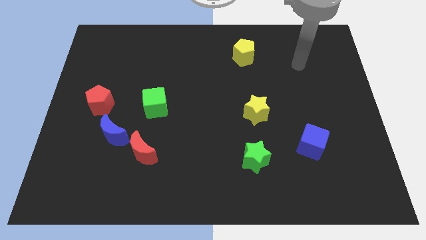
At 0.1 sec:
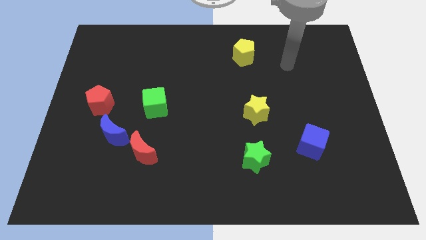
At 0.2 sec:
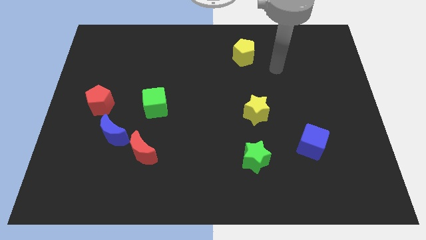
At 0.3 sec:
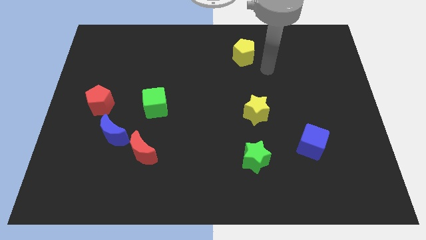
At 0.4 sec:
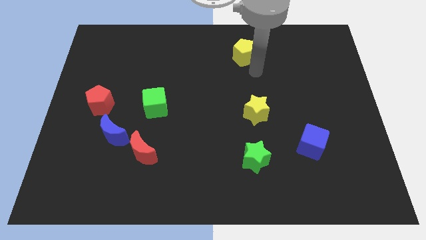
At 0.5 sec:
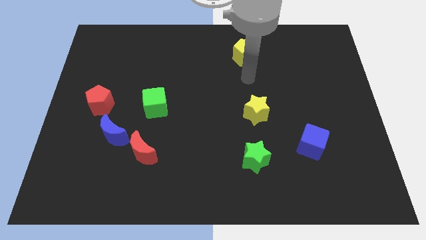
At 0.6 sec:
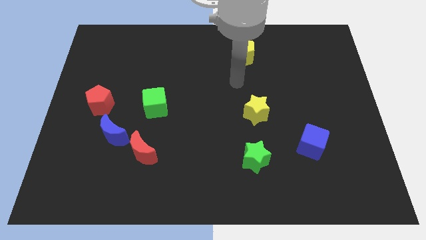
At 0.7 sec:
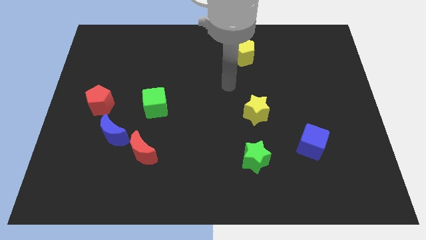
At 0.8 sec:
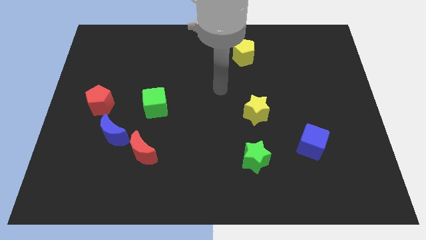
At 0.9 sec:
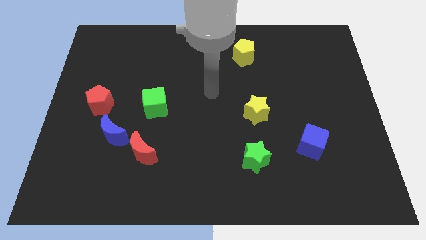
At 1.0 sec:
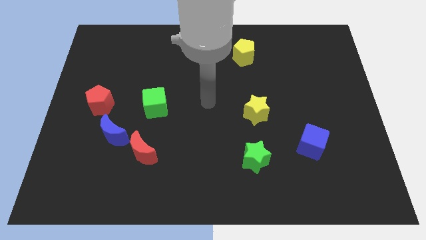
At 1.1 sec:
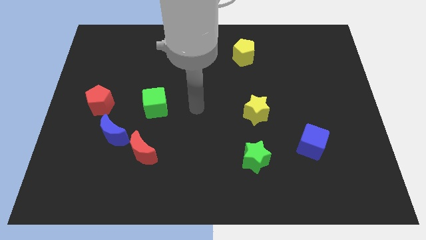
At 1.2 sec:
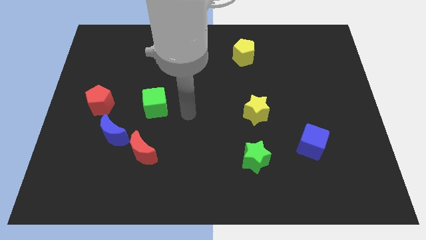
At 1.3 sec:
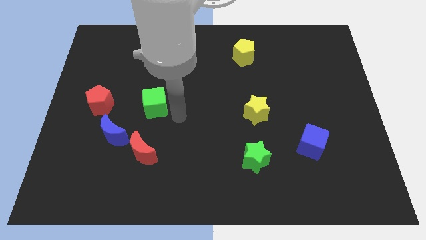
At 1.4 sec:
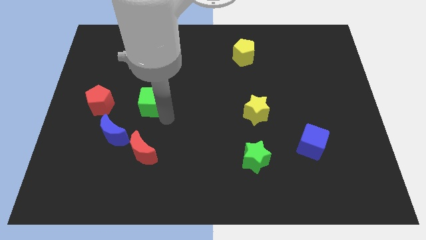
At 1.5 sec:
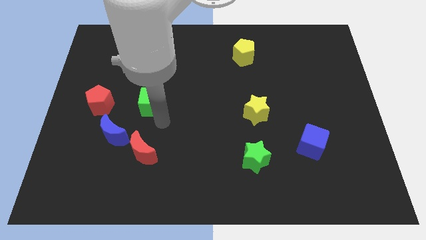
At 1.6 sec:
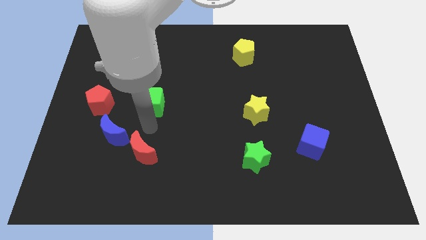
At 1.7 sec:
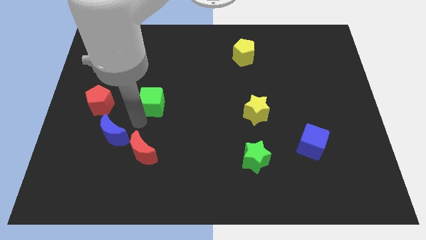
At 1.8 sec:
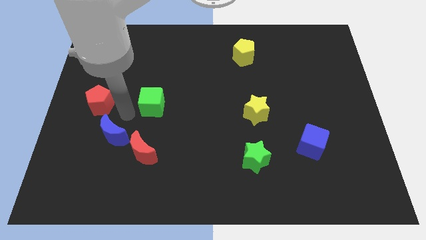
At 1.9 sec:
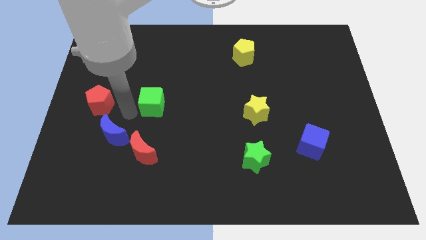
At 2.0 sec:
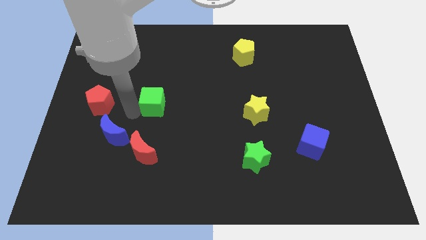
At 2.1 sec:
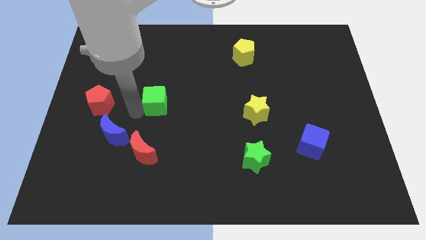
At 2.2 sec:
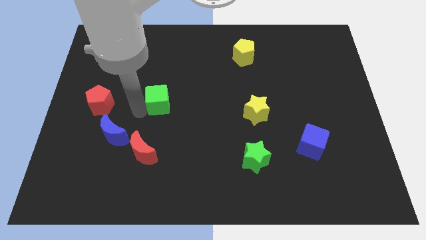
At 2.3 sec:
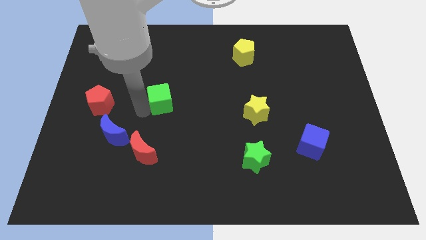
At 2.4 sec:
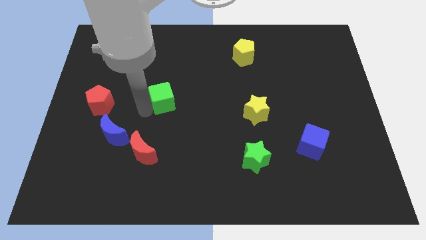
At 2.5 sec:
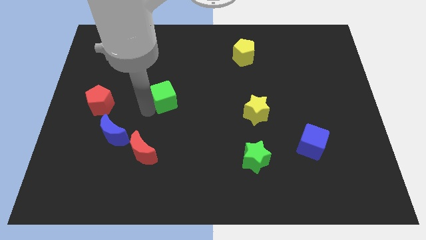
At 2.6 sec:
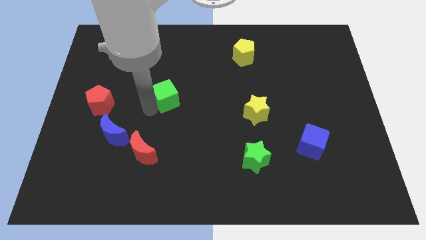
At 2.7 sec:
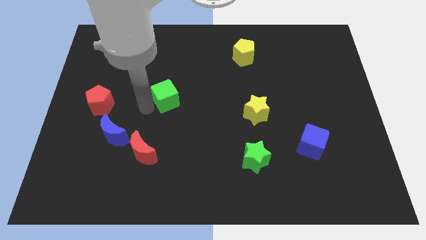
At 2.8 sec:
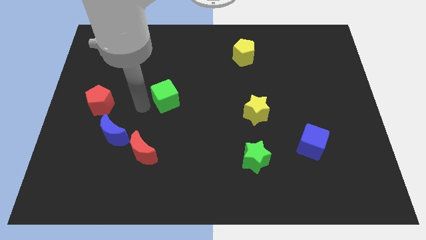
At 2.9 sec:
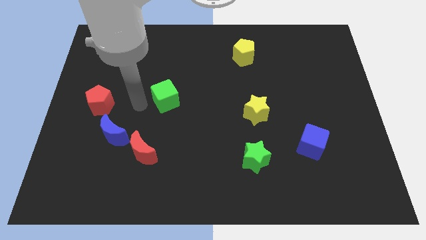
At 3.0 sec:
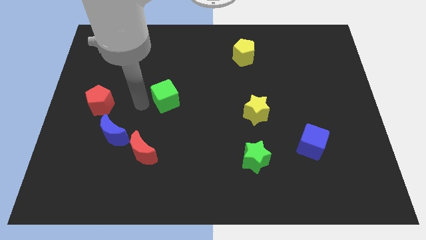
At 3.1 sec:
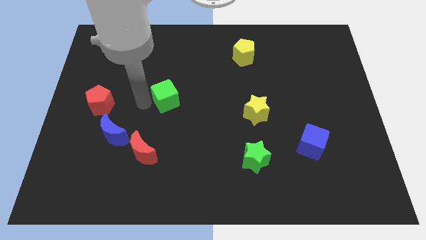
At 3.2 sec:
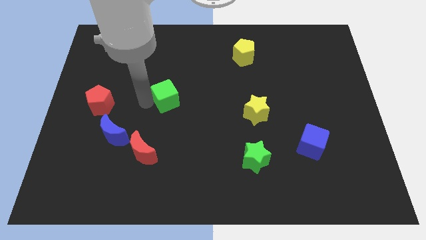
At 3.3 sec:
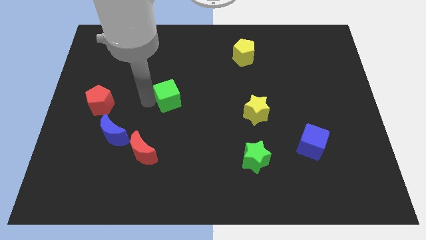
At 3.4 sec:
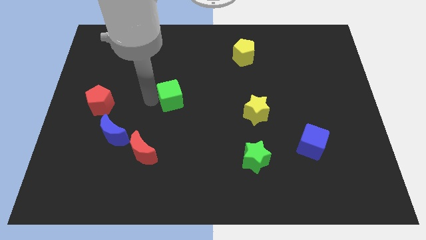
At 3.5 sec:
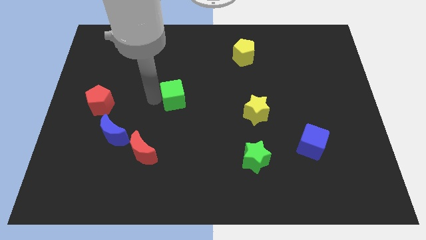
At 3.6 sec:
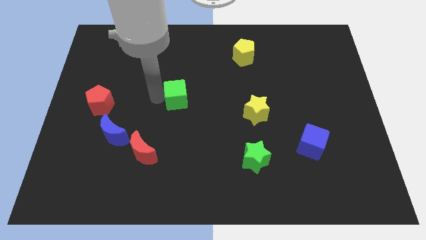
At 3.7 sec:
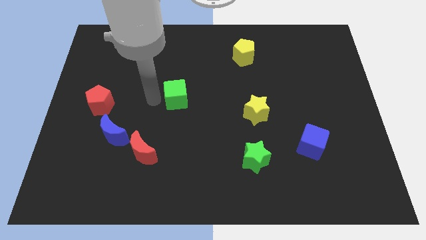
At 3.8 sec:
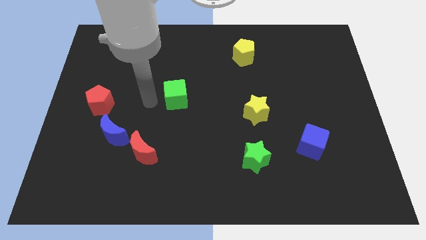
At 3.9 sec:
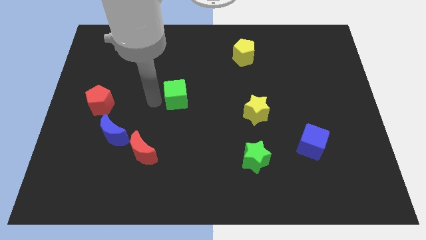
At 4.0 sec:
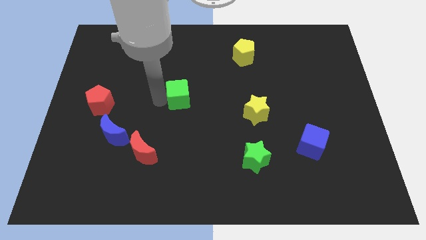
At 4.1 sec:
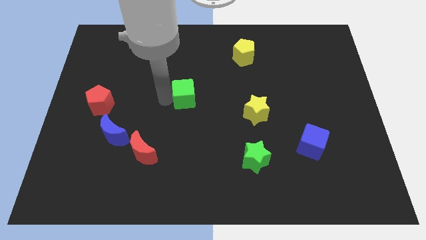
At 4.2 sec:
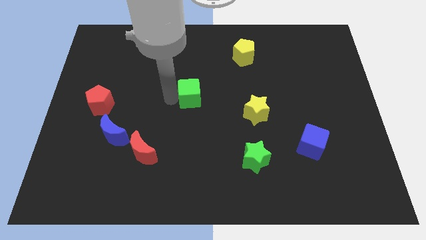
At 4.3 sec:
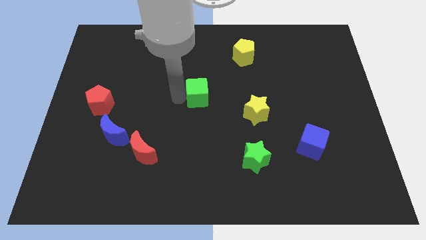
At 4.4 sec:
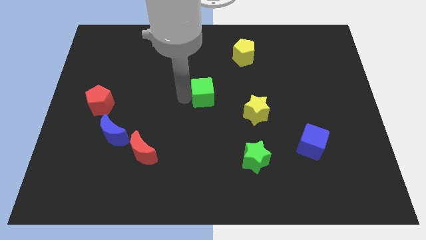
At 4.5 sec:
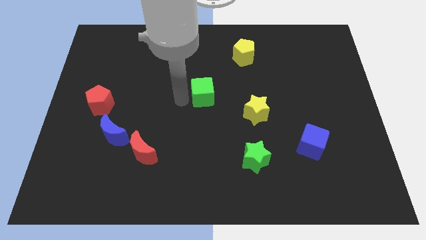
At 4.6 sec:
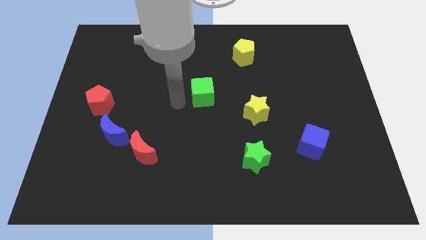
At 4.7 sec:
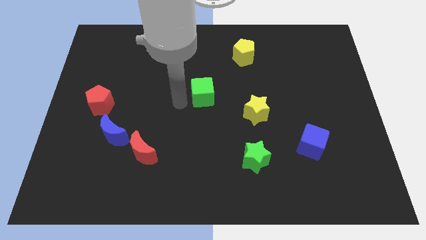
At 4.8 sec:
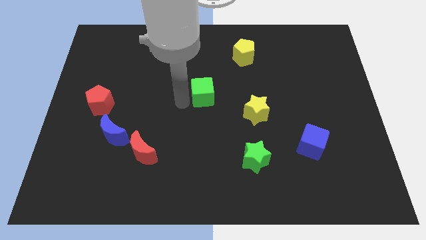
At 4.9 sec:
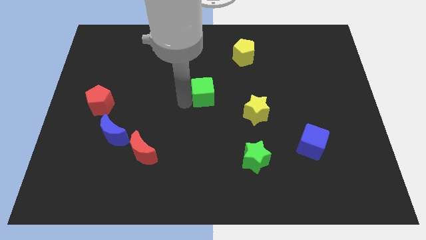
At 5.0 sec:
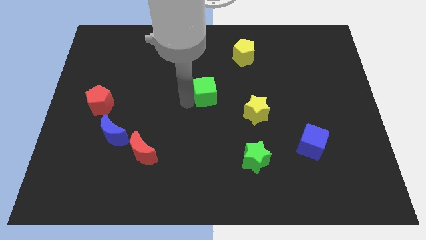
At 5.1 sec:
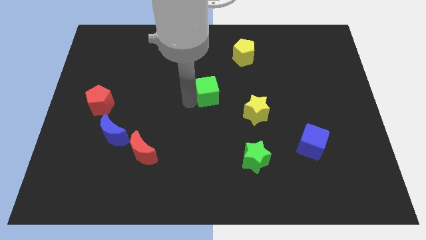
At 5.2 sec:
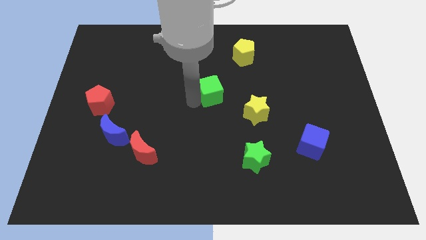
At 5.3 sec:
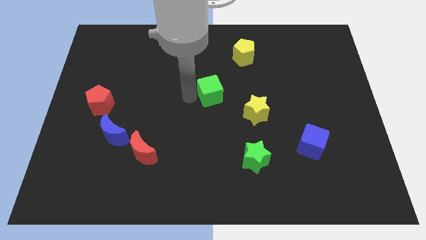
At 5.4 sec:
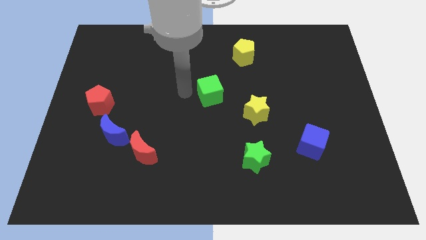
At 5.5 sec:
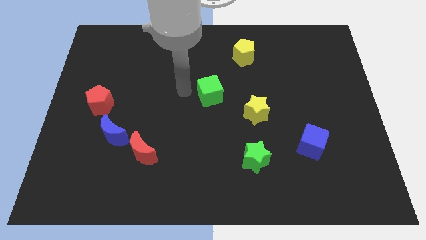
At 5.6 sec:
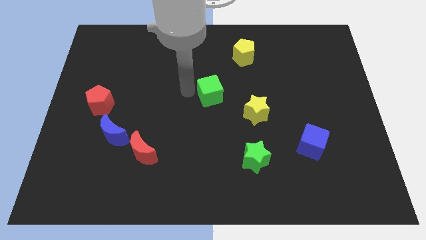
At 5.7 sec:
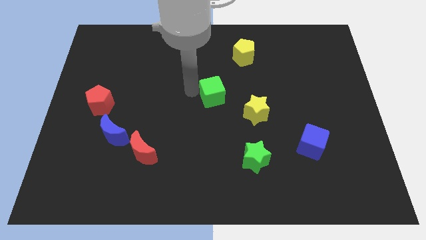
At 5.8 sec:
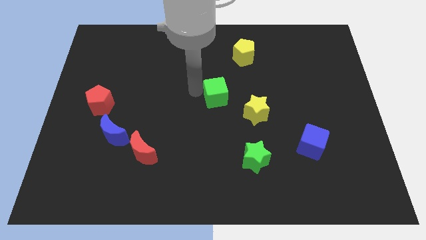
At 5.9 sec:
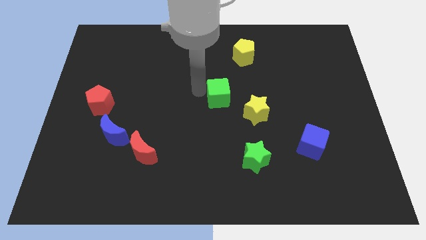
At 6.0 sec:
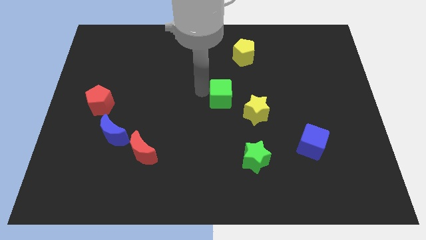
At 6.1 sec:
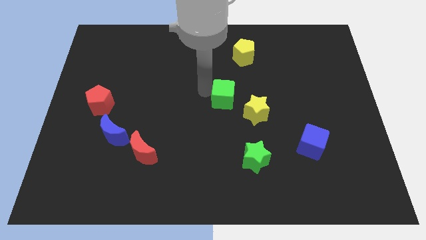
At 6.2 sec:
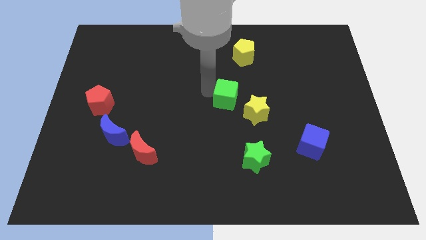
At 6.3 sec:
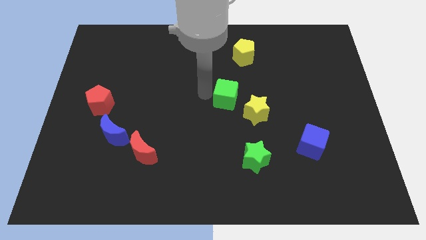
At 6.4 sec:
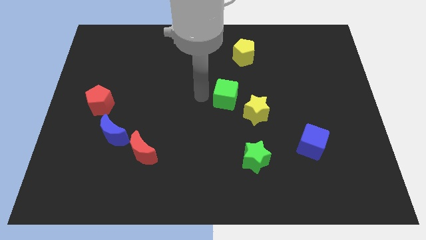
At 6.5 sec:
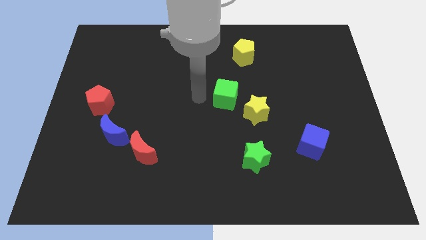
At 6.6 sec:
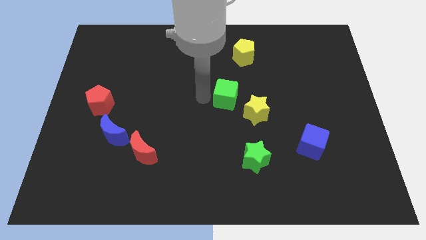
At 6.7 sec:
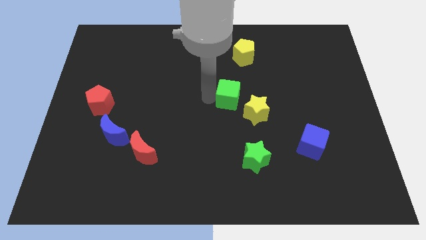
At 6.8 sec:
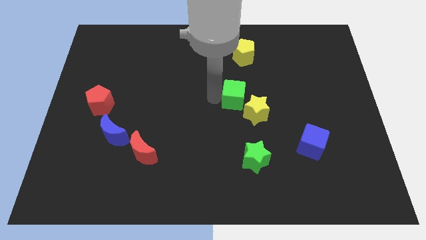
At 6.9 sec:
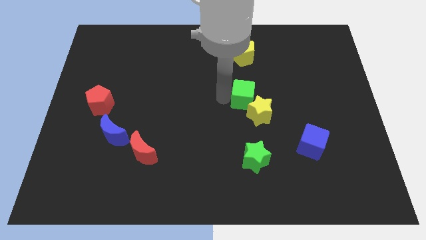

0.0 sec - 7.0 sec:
push the green cube right

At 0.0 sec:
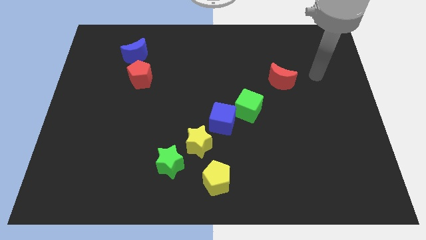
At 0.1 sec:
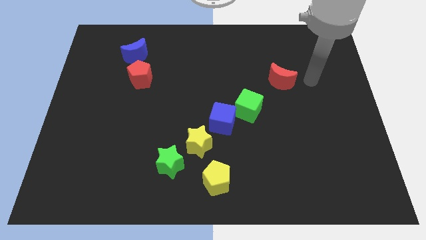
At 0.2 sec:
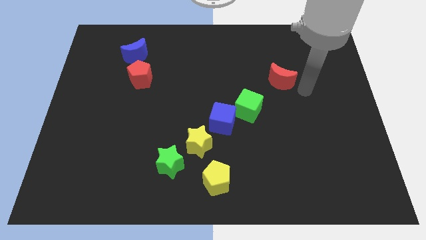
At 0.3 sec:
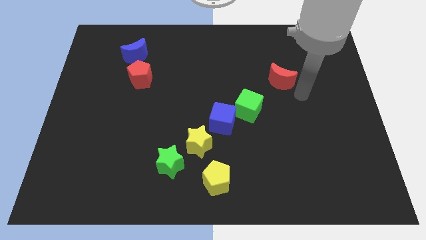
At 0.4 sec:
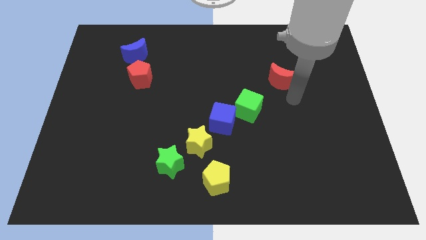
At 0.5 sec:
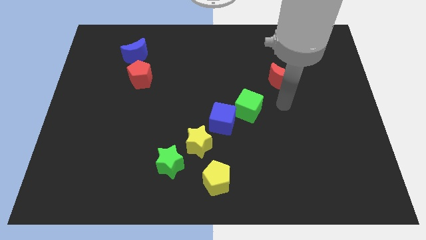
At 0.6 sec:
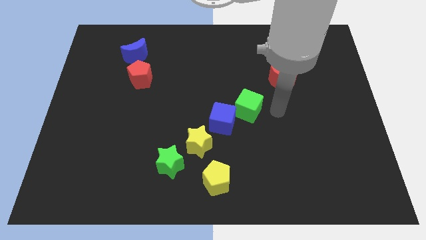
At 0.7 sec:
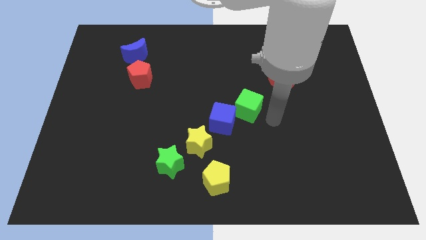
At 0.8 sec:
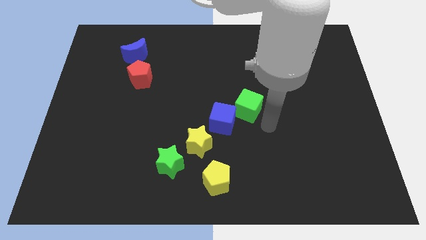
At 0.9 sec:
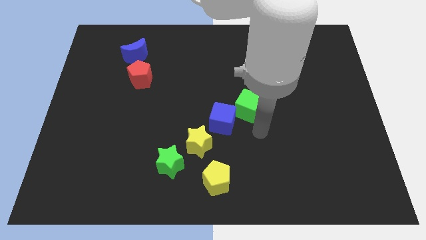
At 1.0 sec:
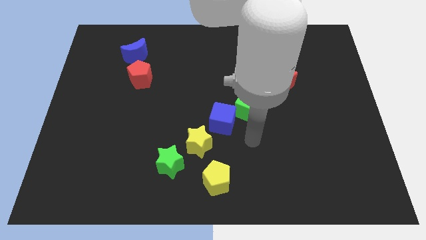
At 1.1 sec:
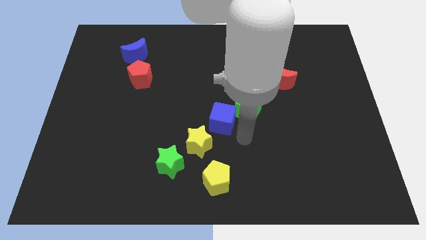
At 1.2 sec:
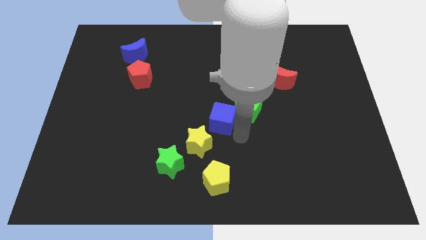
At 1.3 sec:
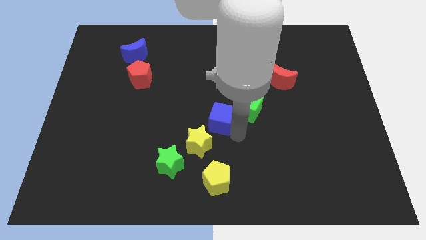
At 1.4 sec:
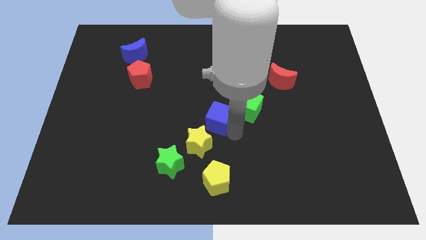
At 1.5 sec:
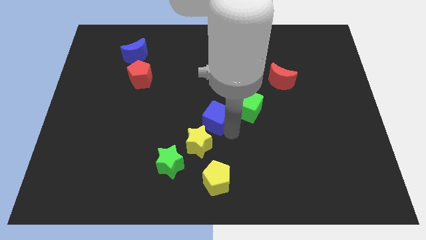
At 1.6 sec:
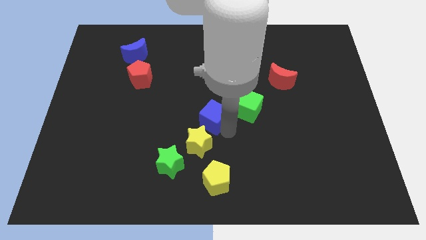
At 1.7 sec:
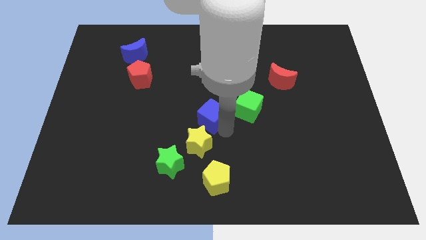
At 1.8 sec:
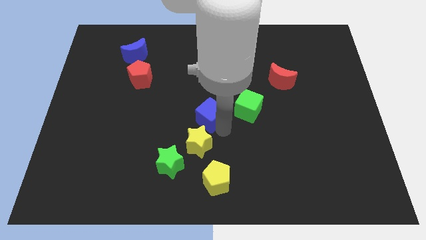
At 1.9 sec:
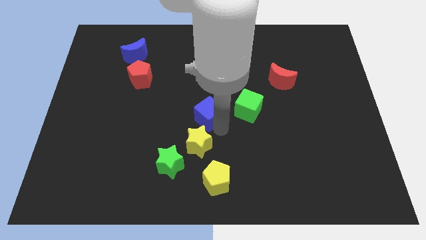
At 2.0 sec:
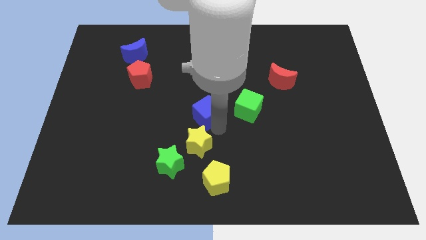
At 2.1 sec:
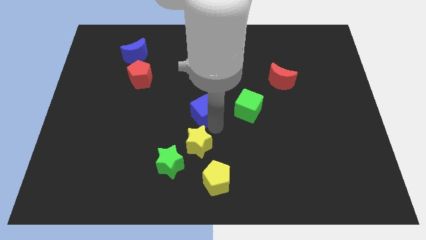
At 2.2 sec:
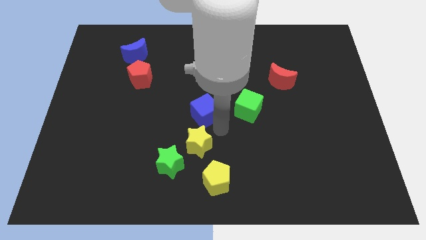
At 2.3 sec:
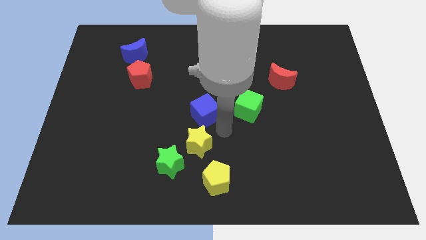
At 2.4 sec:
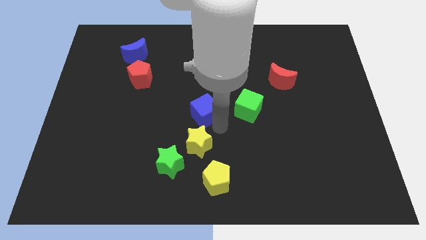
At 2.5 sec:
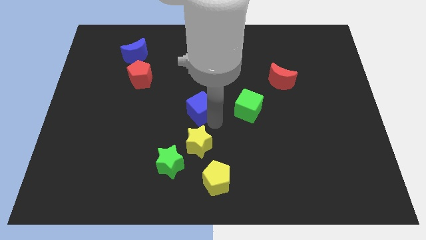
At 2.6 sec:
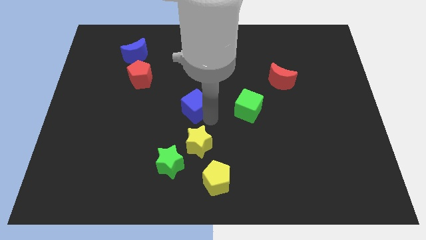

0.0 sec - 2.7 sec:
slide the blue cube diagonally up and left somewhat
